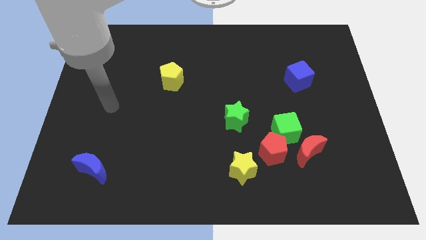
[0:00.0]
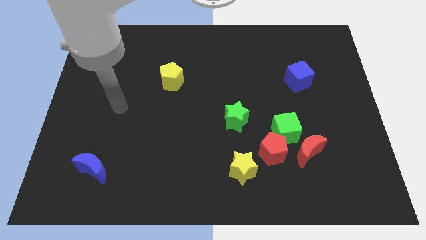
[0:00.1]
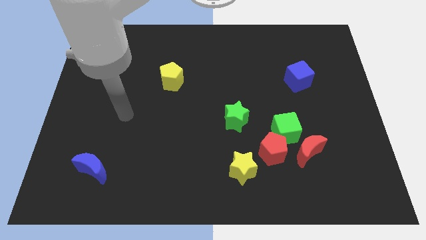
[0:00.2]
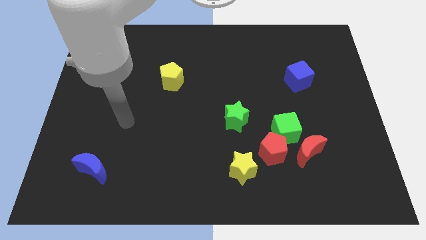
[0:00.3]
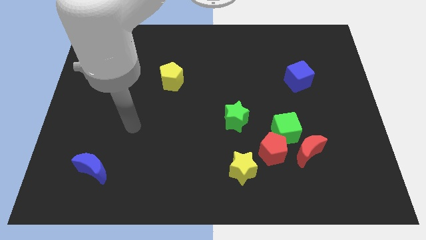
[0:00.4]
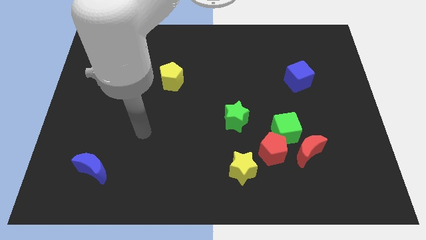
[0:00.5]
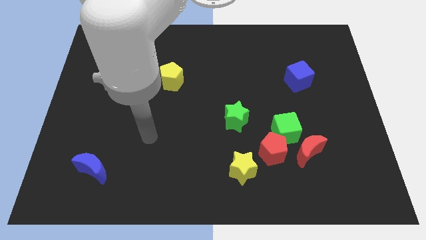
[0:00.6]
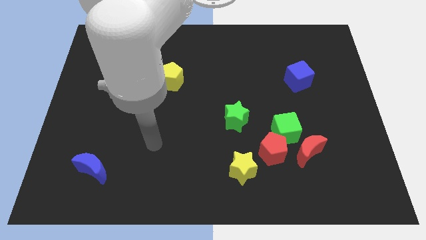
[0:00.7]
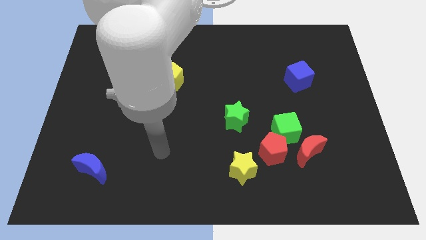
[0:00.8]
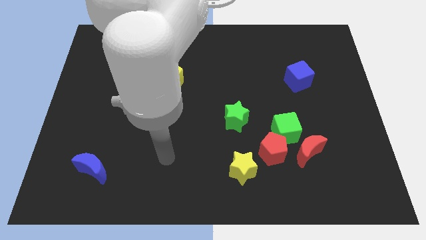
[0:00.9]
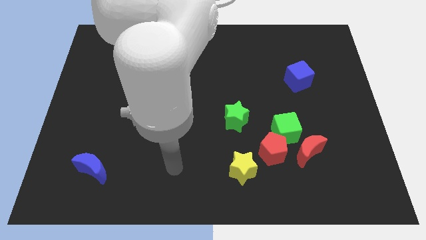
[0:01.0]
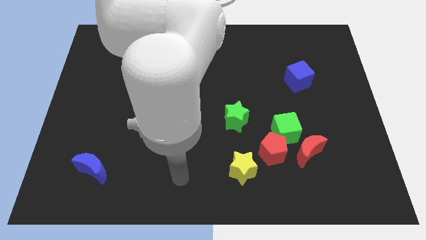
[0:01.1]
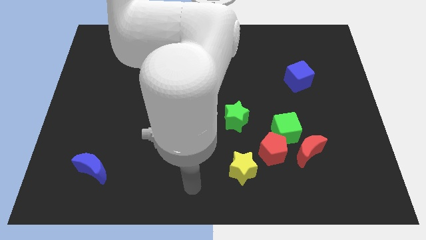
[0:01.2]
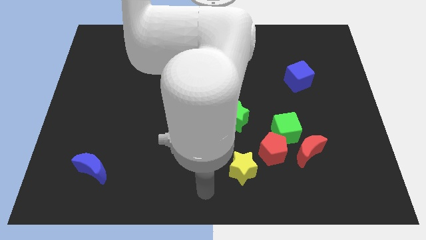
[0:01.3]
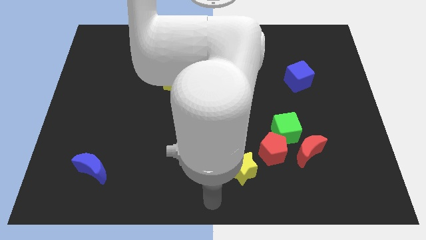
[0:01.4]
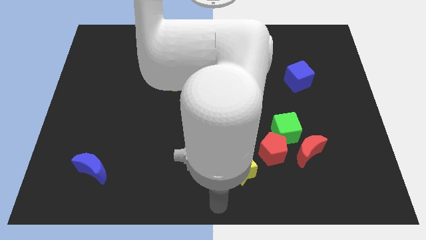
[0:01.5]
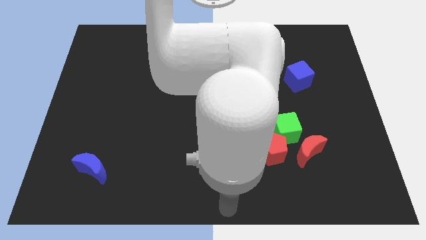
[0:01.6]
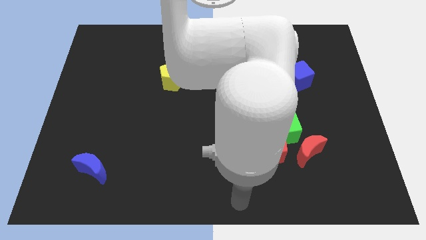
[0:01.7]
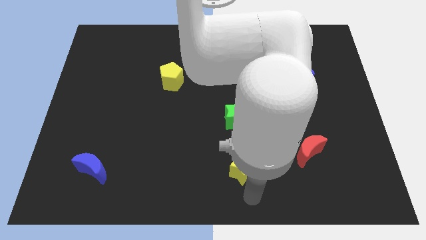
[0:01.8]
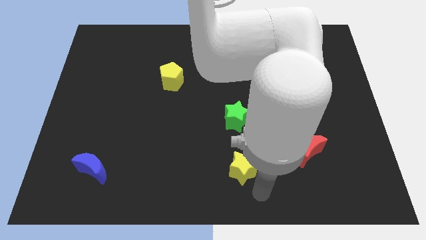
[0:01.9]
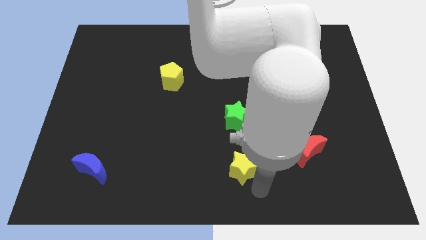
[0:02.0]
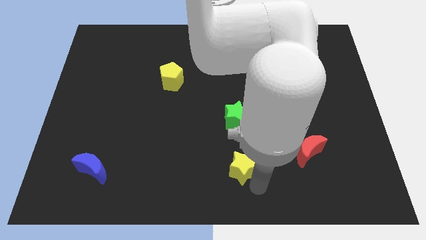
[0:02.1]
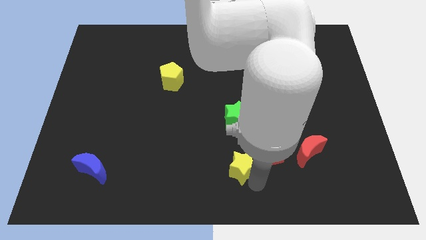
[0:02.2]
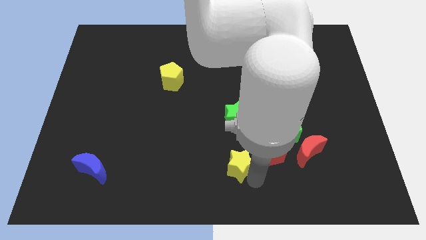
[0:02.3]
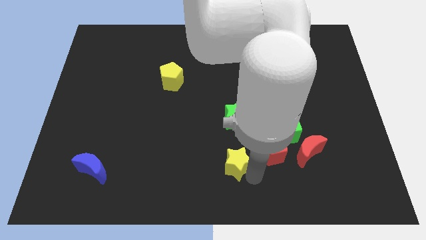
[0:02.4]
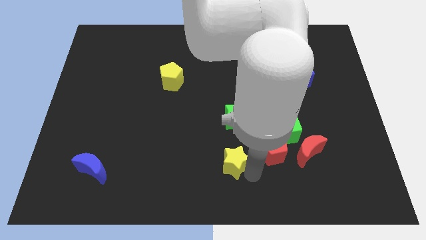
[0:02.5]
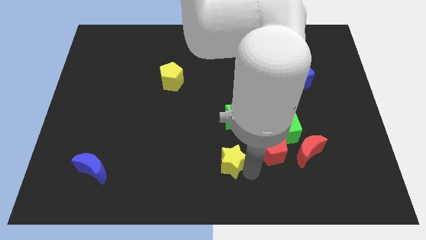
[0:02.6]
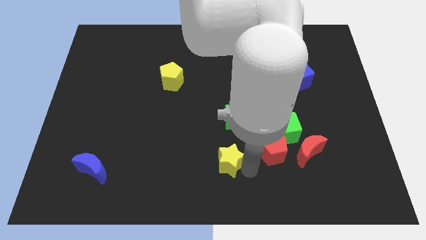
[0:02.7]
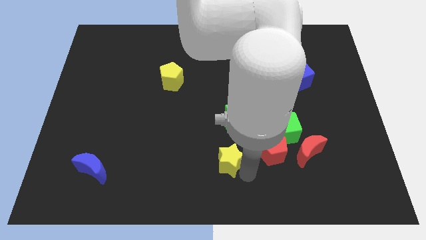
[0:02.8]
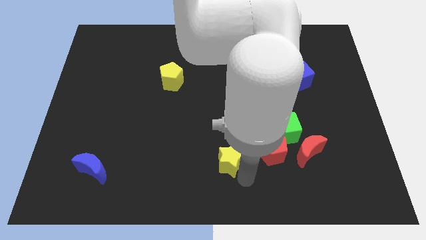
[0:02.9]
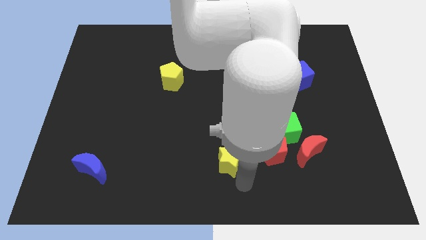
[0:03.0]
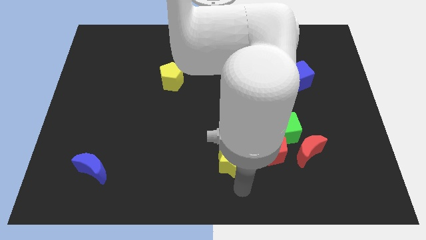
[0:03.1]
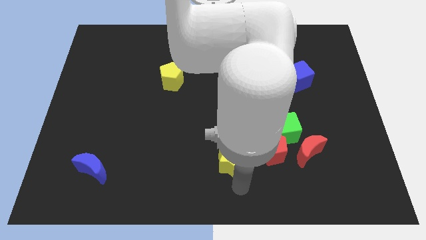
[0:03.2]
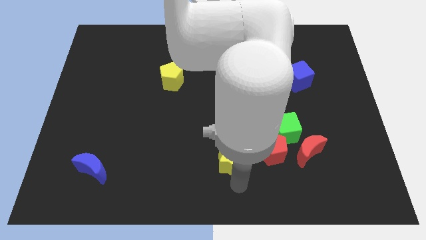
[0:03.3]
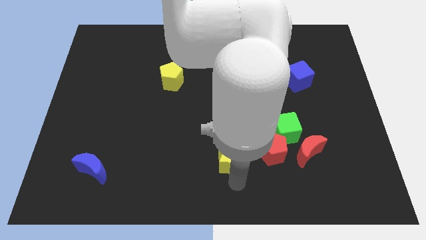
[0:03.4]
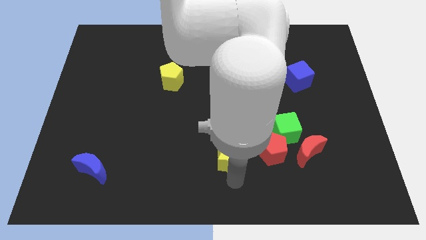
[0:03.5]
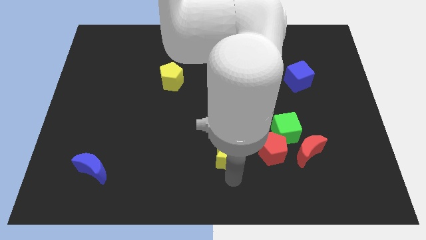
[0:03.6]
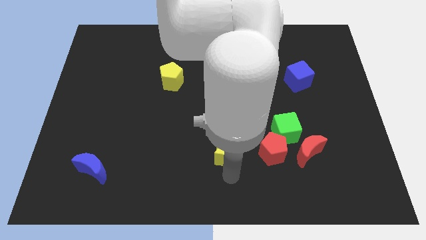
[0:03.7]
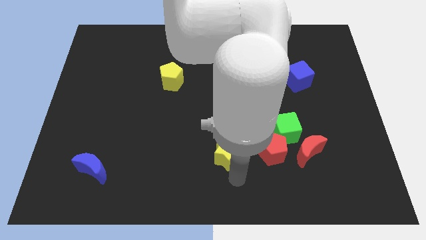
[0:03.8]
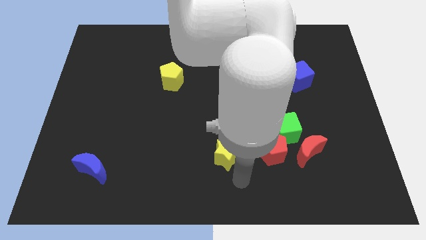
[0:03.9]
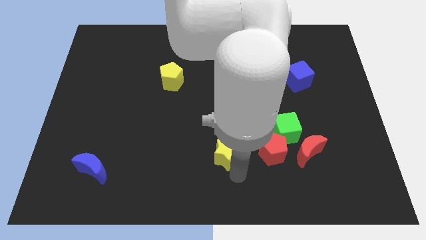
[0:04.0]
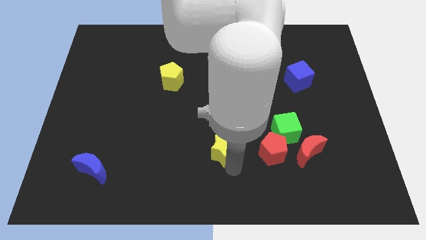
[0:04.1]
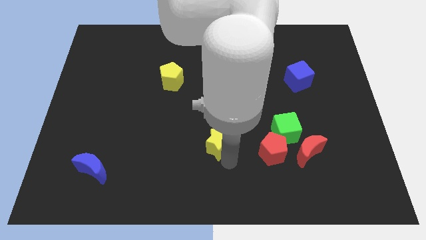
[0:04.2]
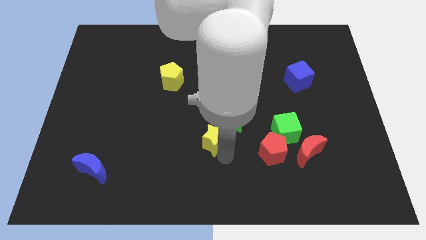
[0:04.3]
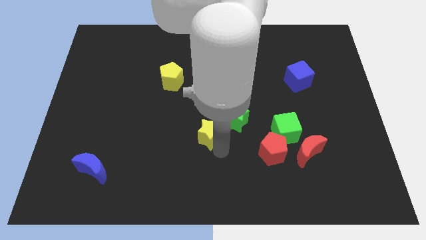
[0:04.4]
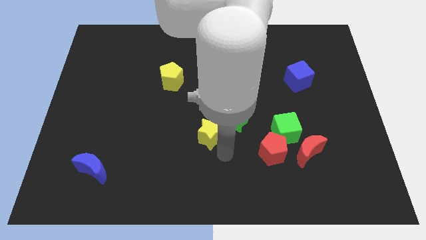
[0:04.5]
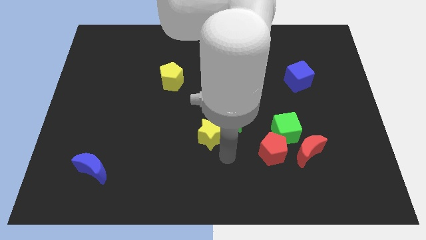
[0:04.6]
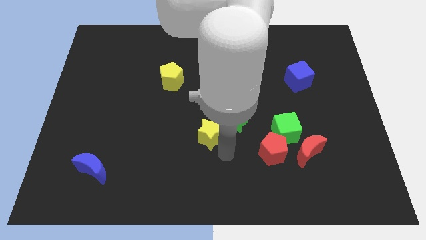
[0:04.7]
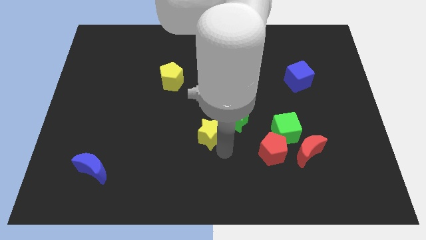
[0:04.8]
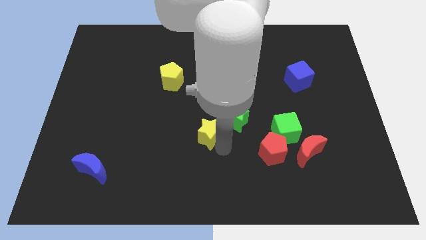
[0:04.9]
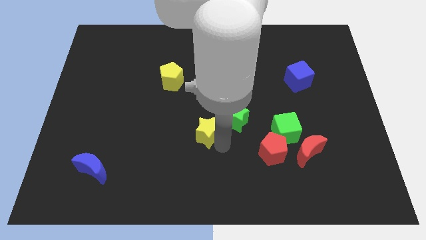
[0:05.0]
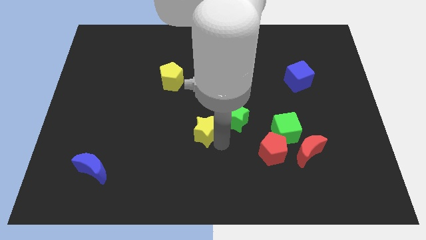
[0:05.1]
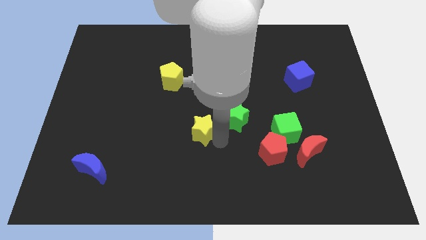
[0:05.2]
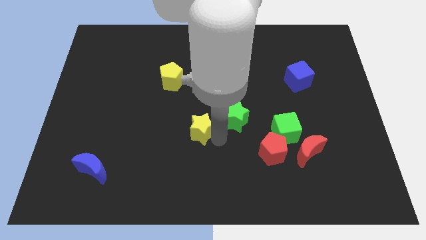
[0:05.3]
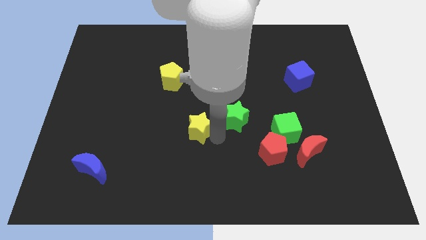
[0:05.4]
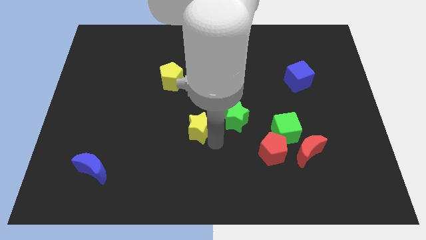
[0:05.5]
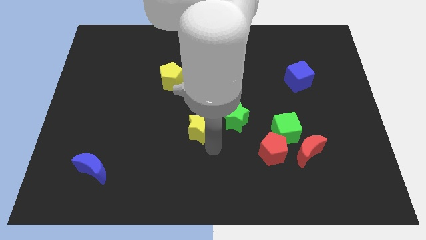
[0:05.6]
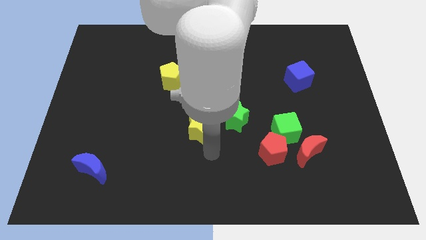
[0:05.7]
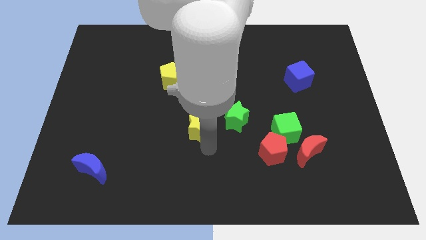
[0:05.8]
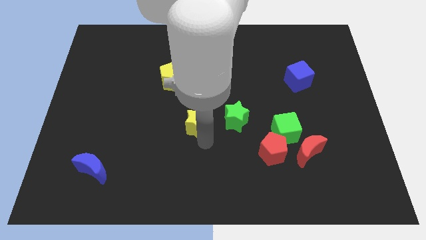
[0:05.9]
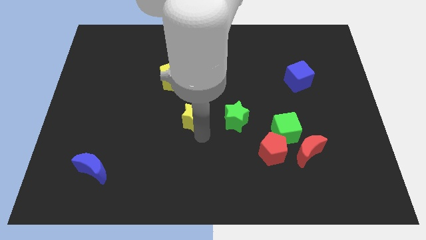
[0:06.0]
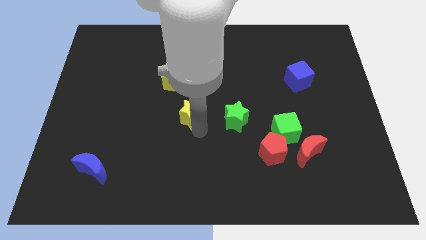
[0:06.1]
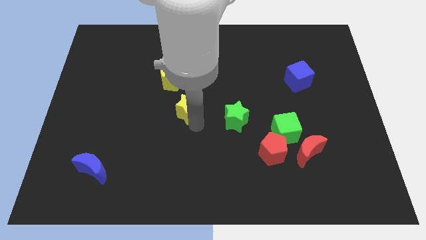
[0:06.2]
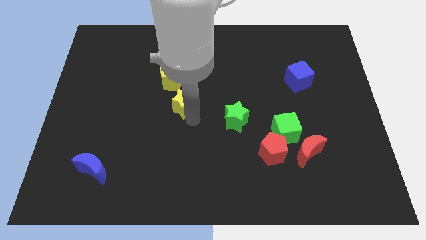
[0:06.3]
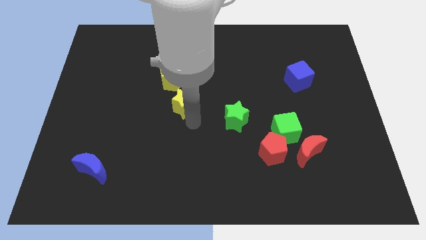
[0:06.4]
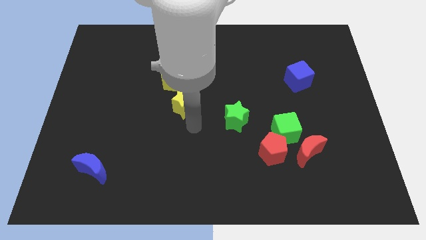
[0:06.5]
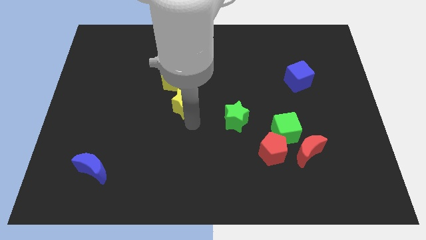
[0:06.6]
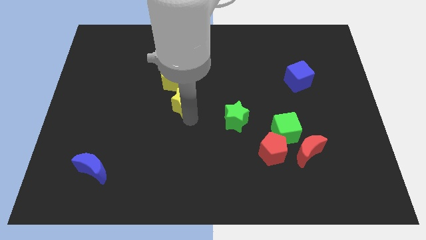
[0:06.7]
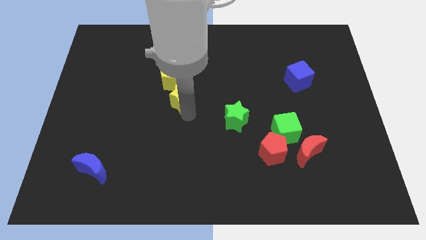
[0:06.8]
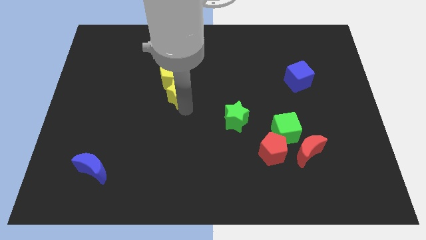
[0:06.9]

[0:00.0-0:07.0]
slide the yellow star to the yellow pentagon
